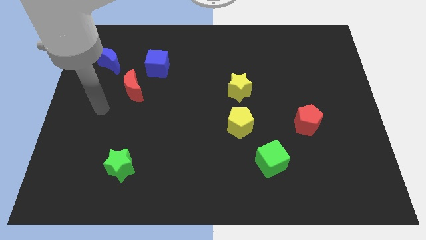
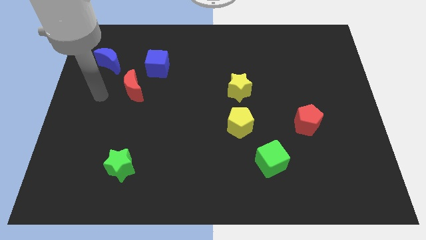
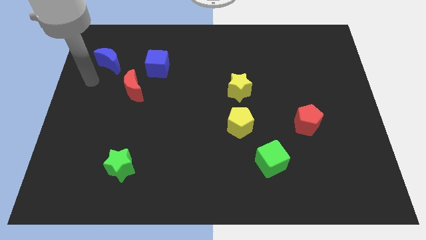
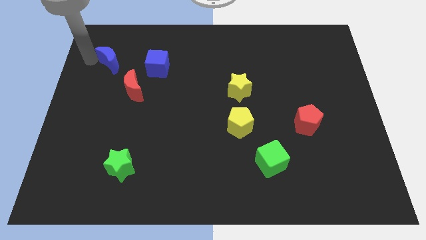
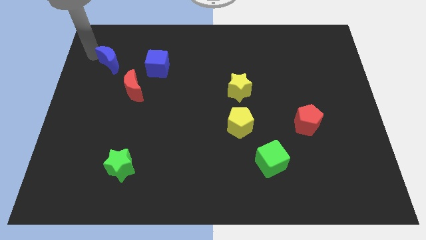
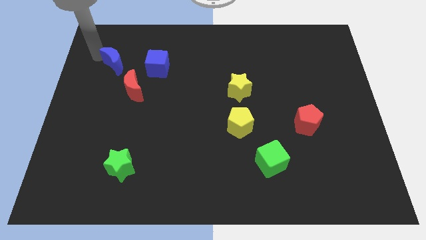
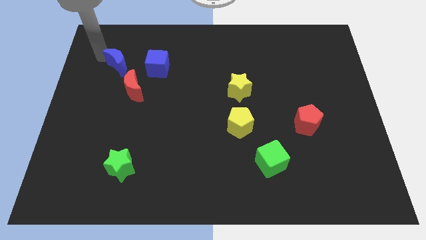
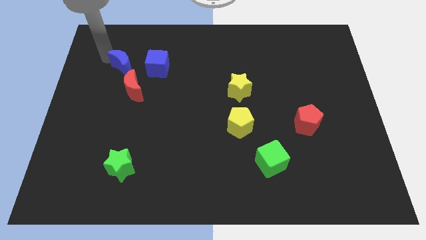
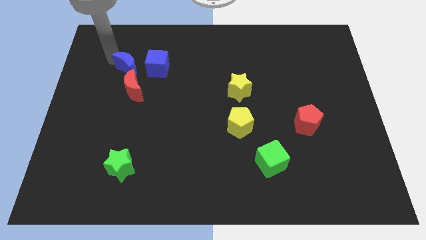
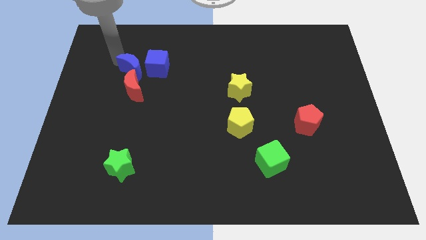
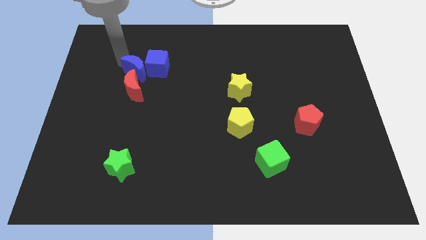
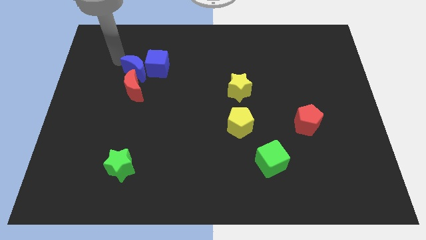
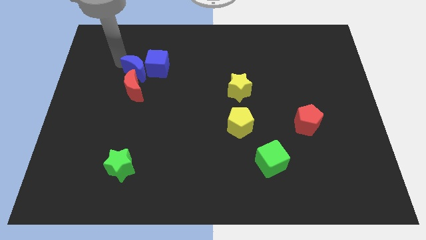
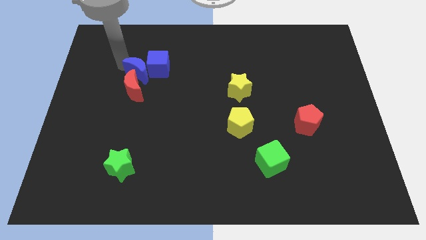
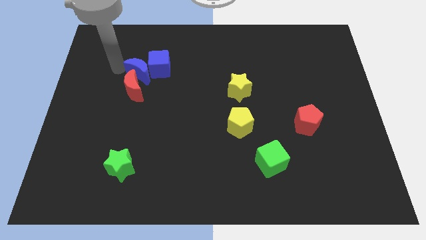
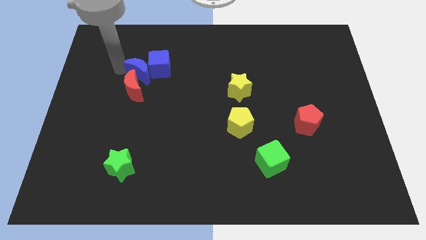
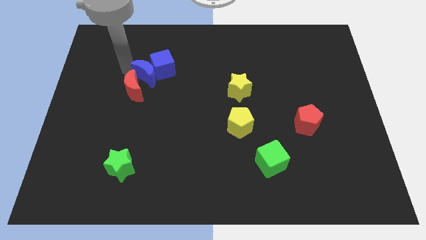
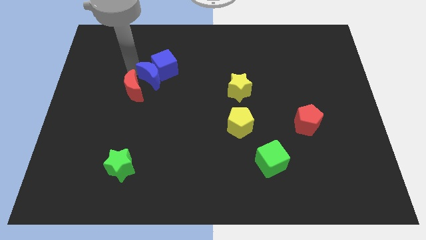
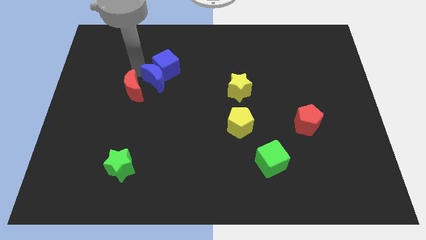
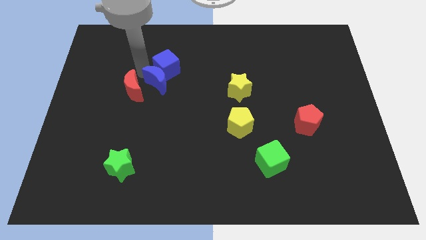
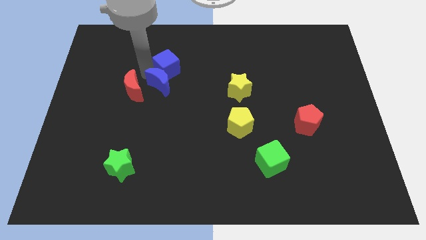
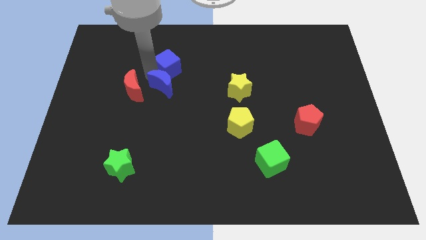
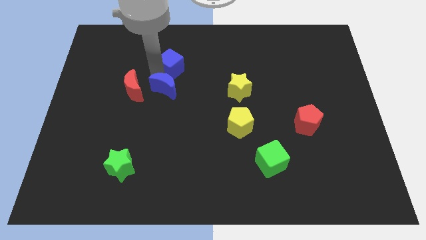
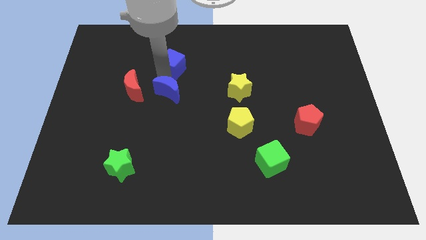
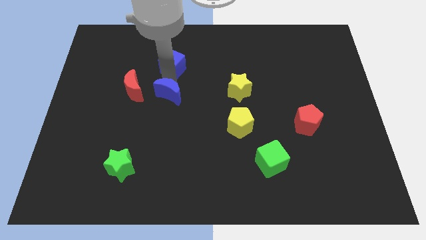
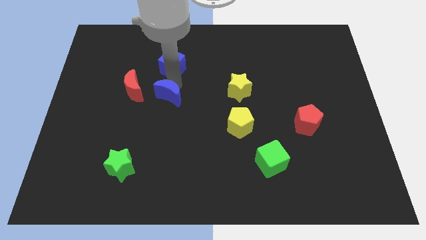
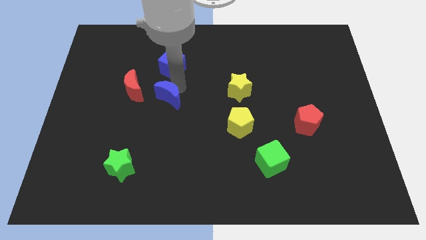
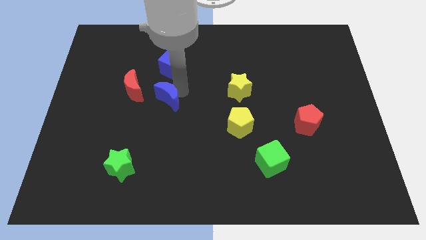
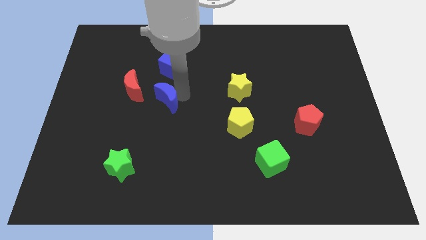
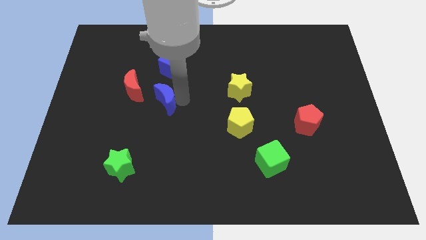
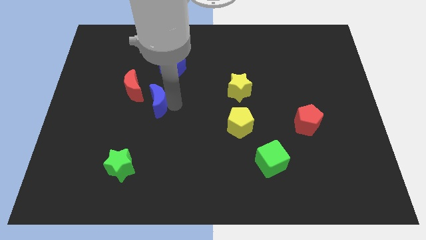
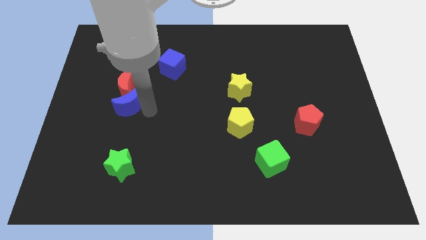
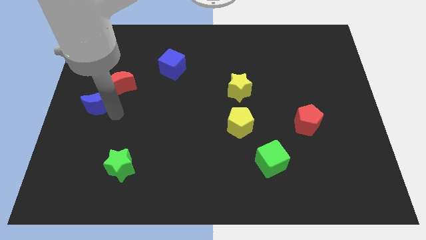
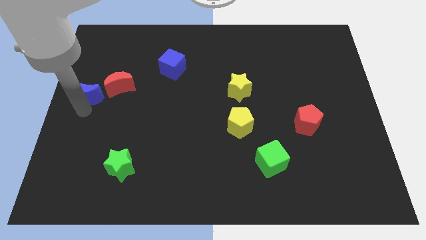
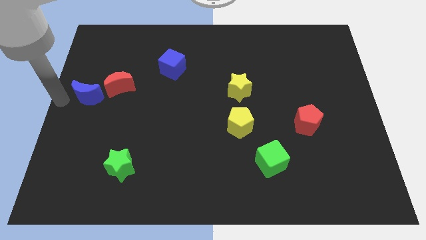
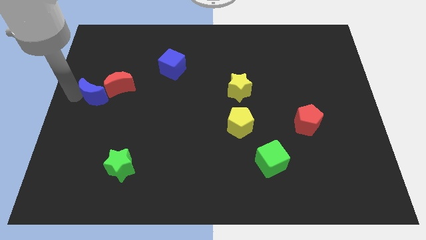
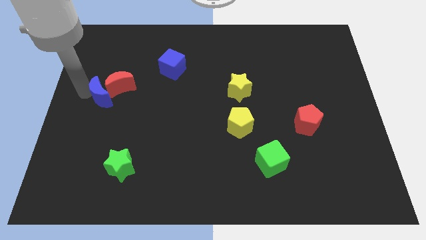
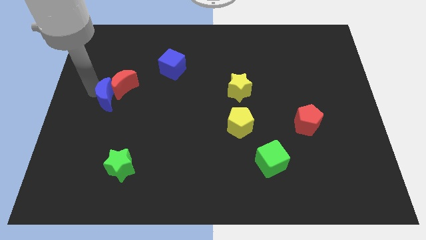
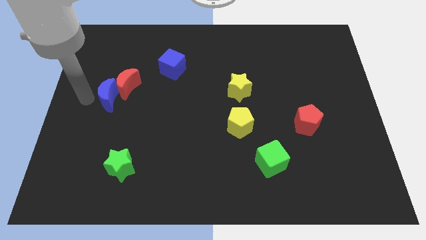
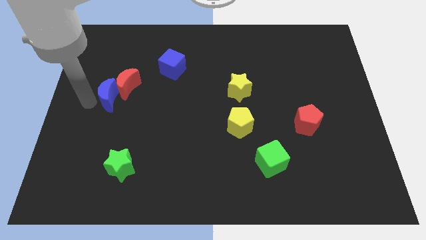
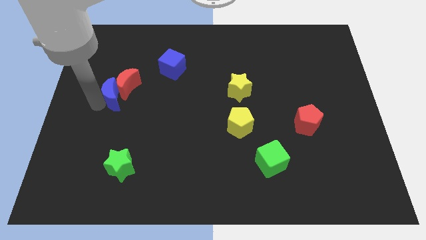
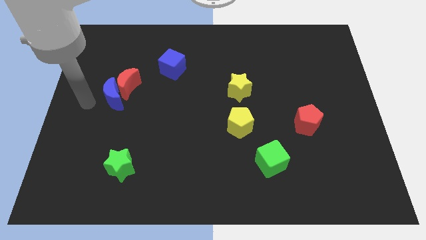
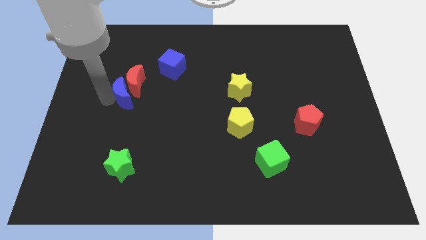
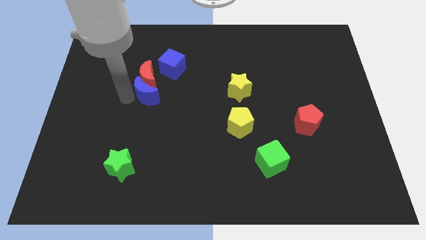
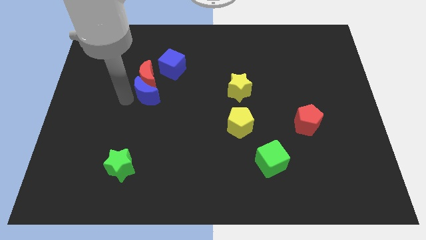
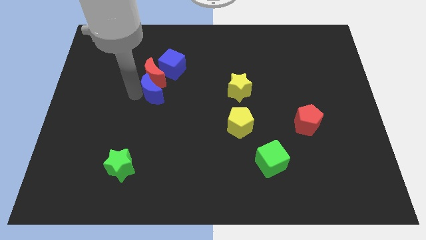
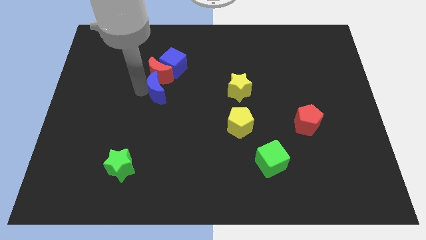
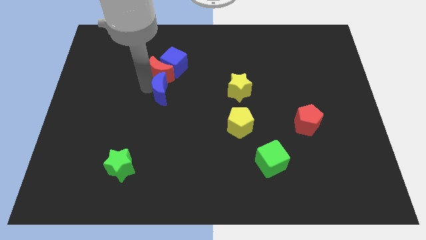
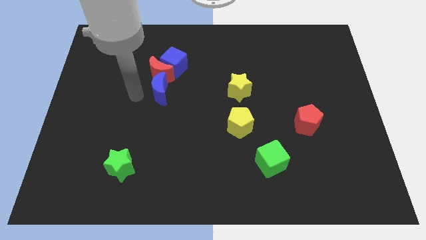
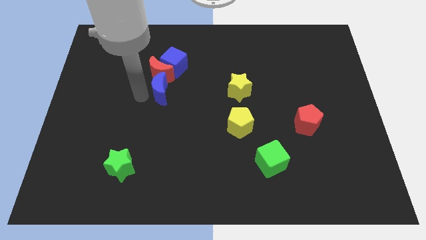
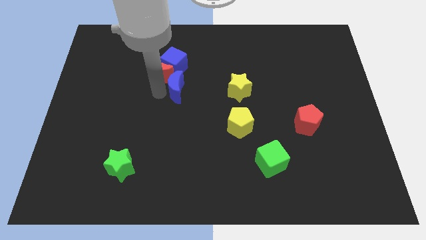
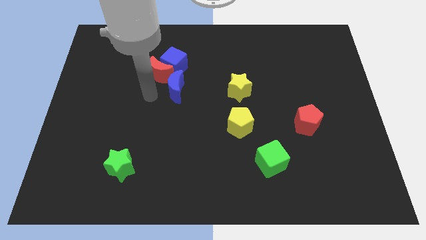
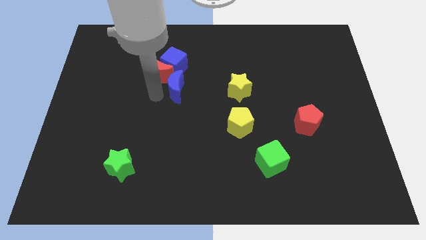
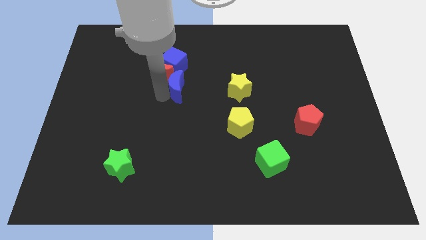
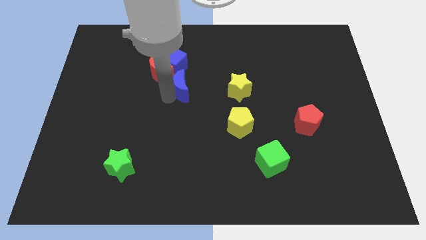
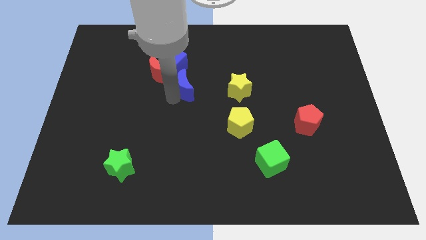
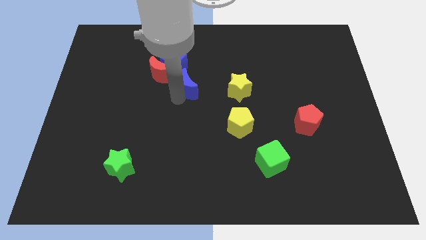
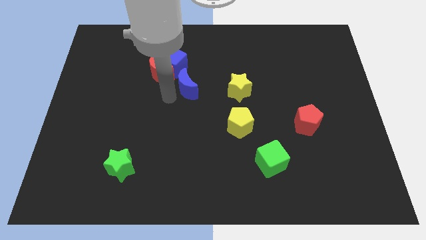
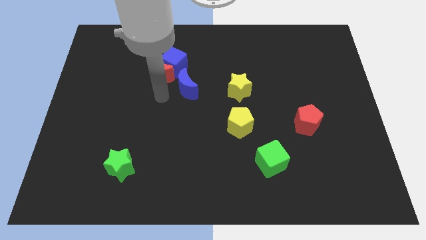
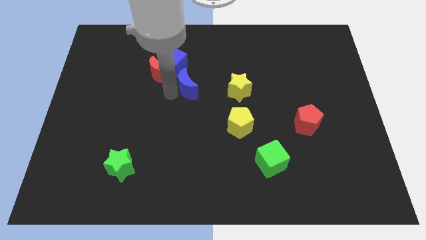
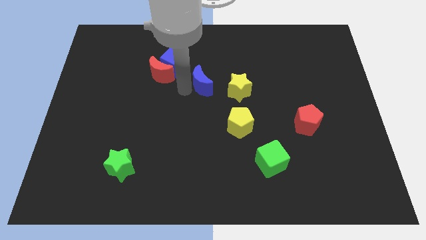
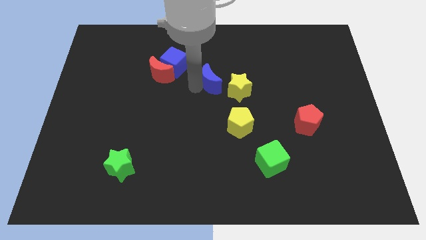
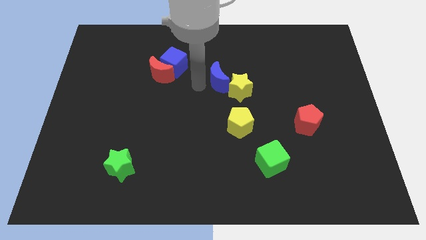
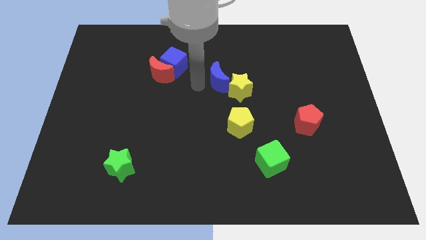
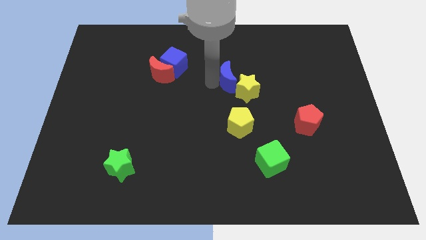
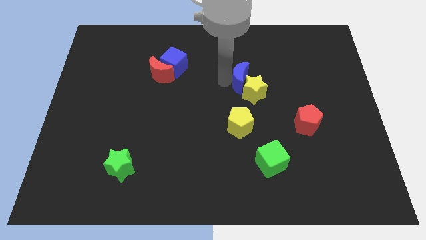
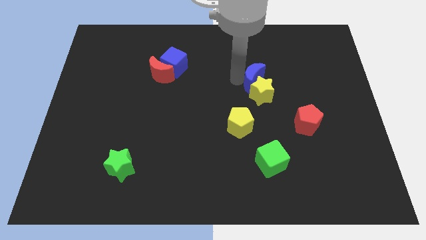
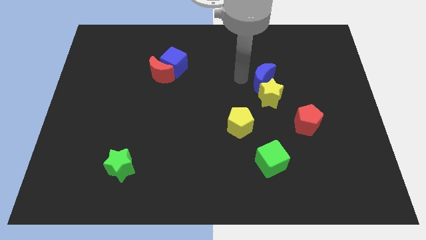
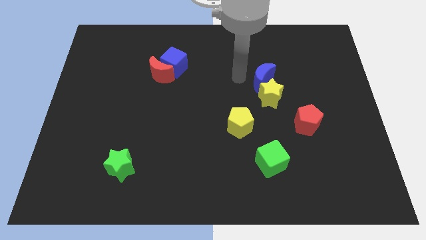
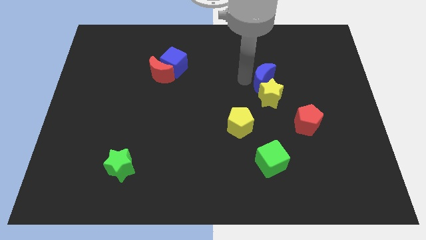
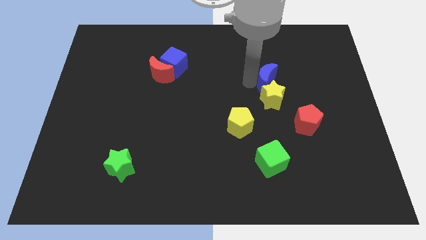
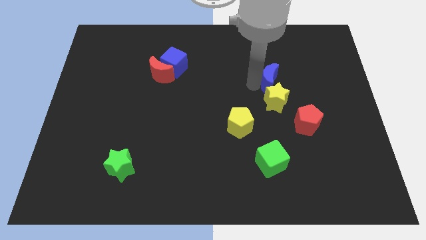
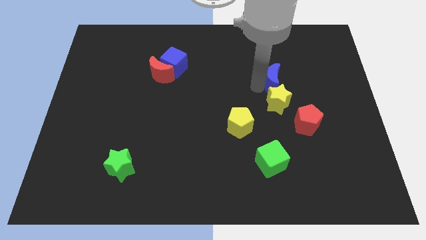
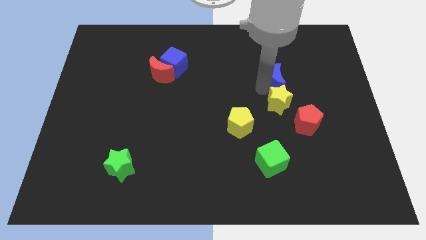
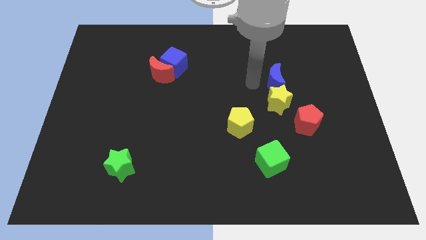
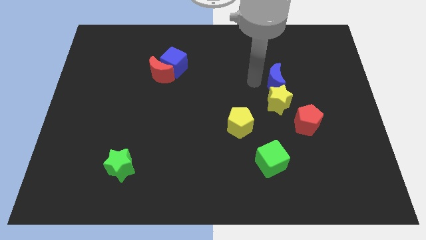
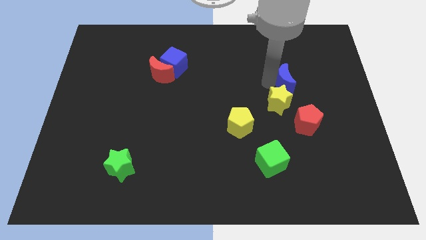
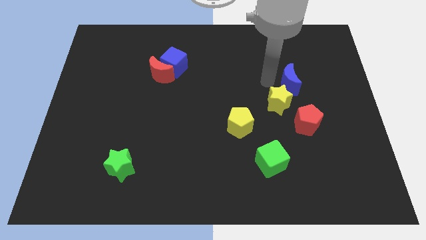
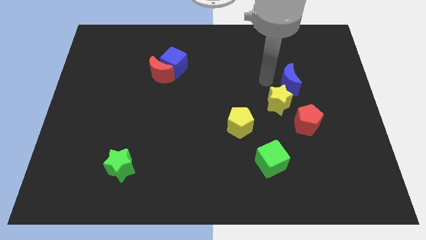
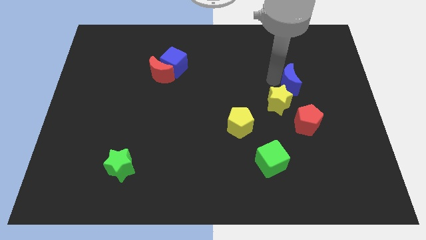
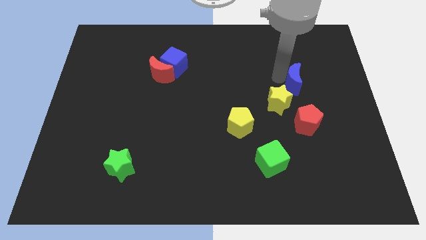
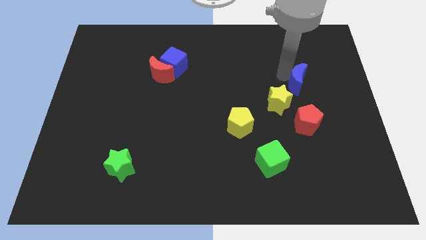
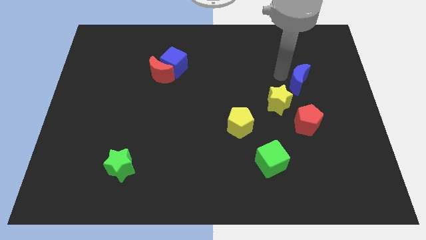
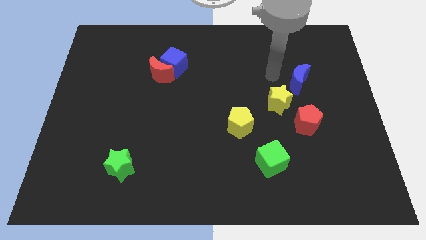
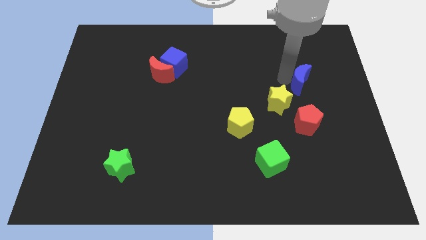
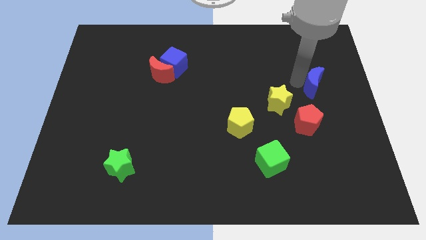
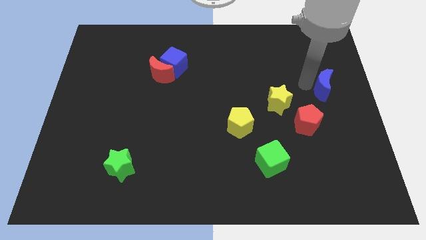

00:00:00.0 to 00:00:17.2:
slide the blue moon to the right side
